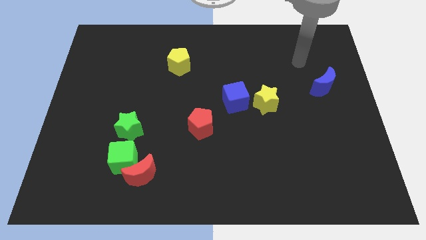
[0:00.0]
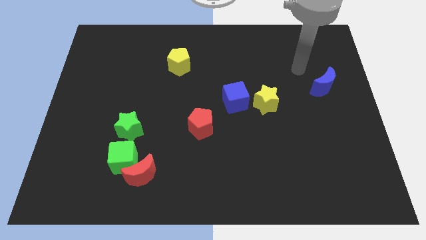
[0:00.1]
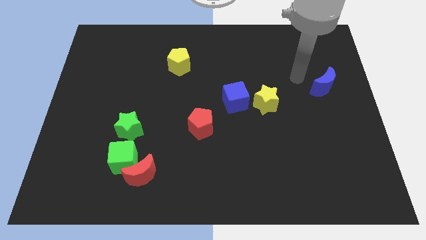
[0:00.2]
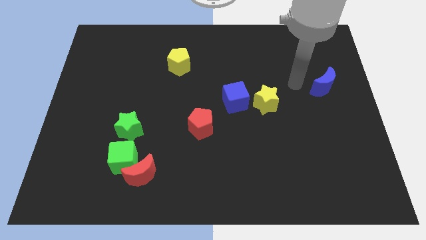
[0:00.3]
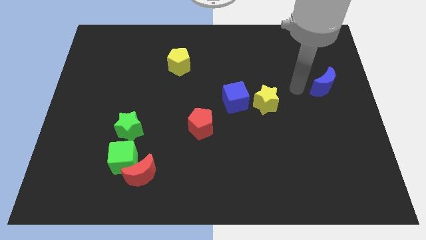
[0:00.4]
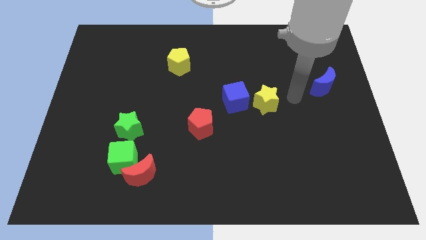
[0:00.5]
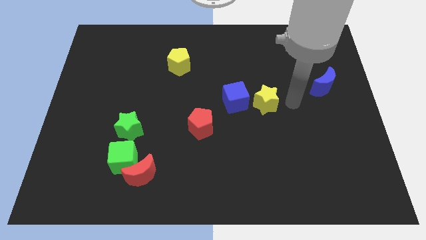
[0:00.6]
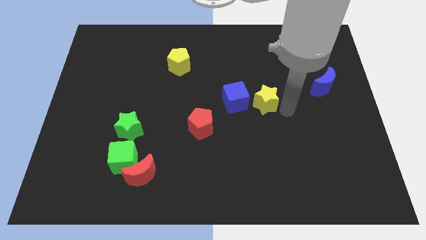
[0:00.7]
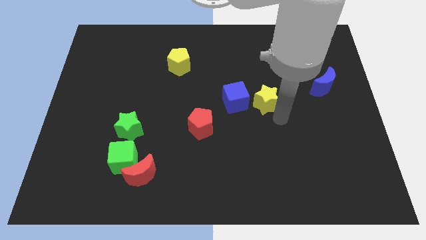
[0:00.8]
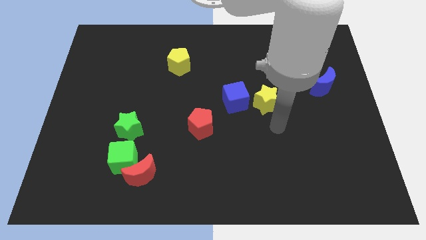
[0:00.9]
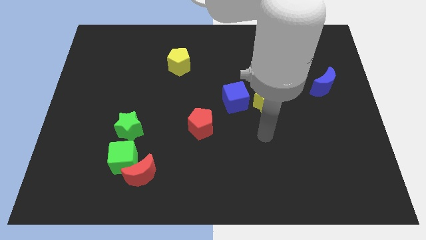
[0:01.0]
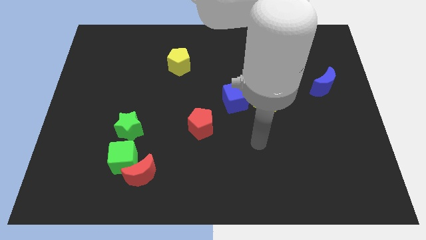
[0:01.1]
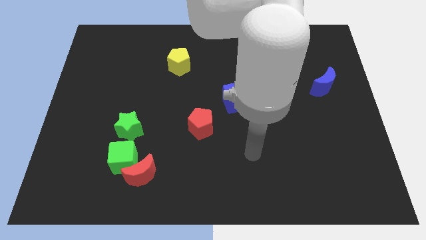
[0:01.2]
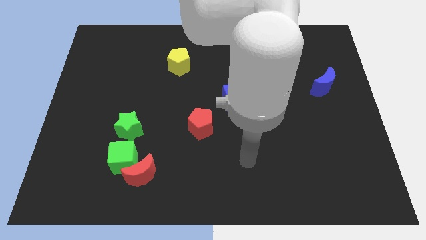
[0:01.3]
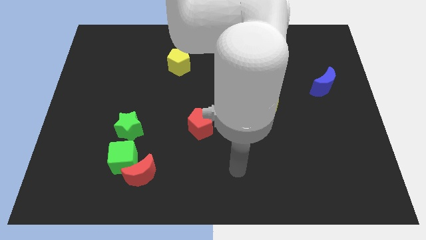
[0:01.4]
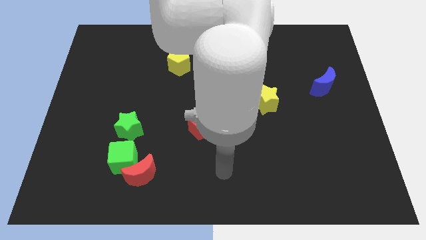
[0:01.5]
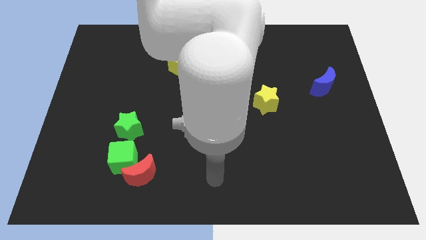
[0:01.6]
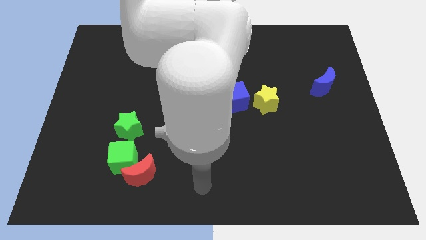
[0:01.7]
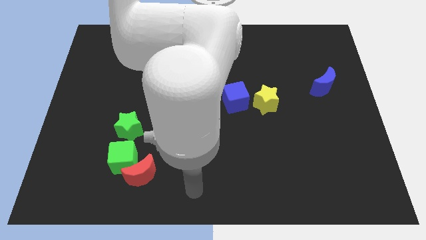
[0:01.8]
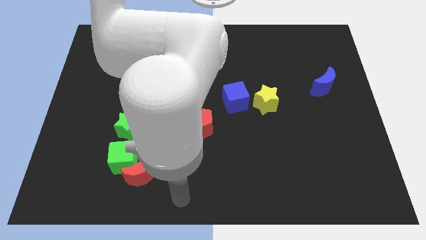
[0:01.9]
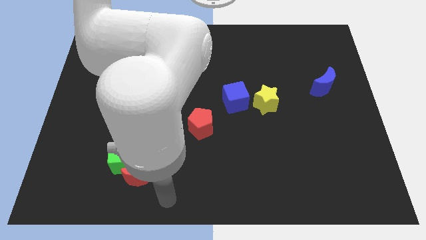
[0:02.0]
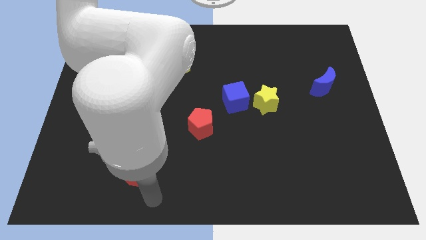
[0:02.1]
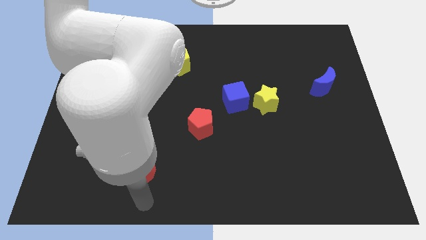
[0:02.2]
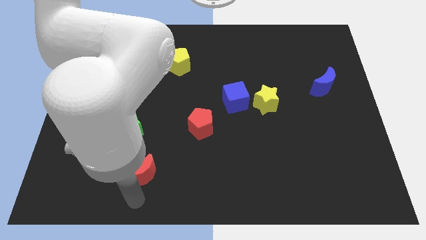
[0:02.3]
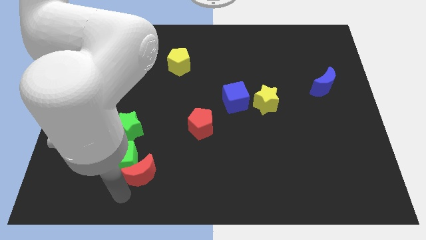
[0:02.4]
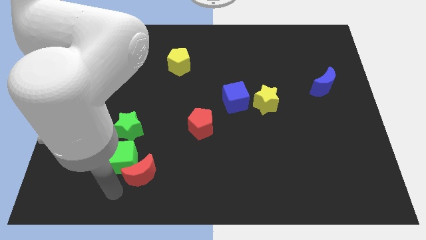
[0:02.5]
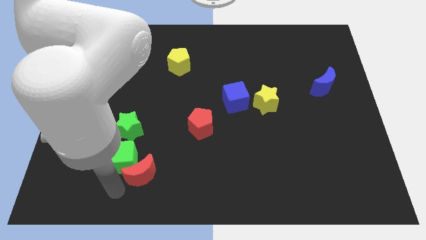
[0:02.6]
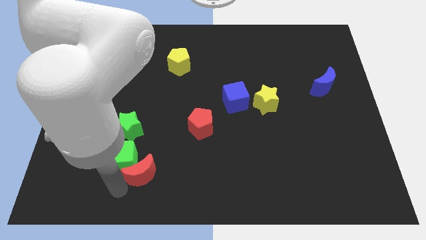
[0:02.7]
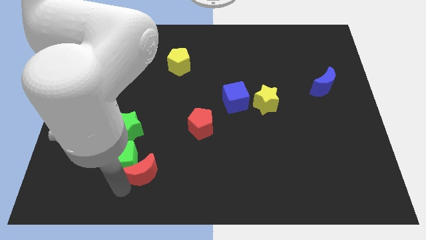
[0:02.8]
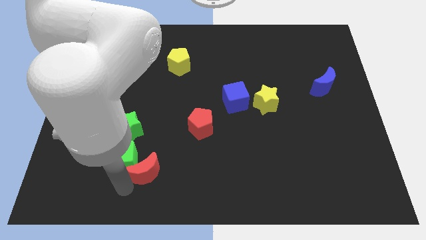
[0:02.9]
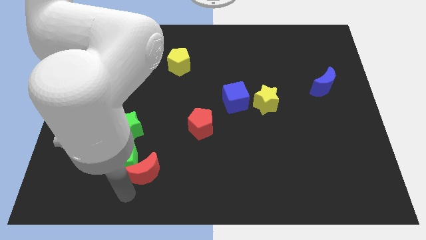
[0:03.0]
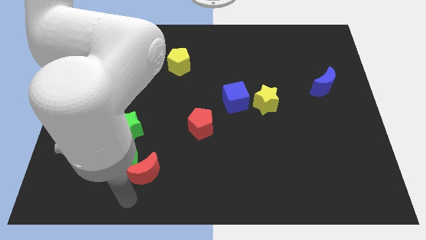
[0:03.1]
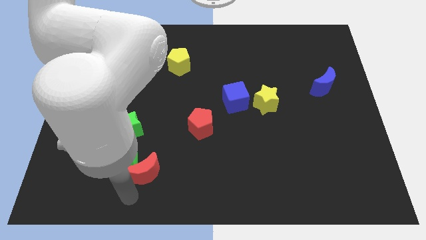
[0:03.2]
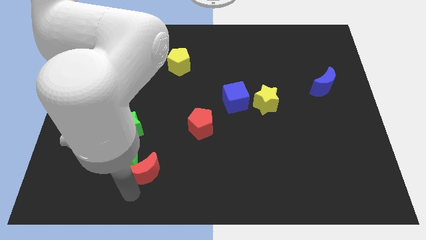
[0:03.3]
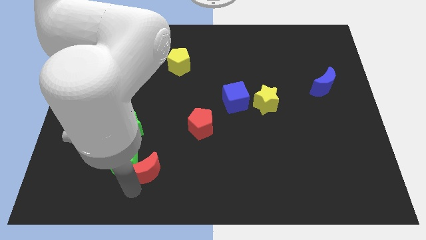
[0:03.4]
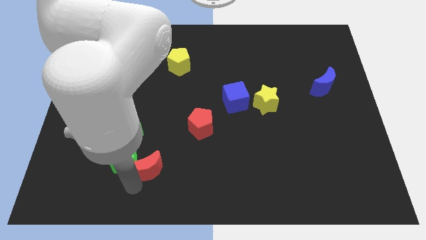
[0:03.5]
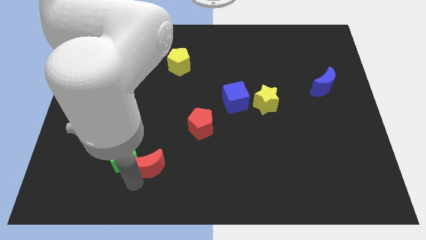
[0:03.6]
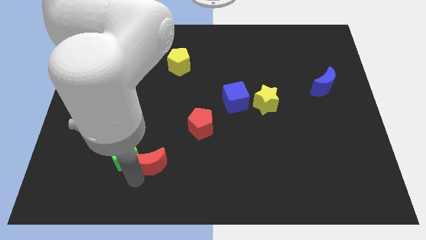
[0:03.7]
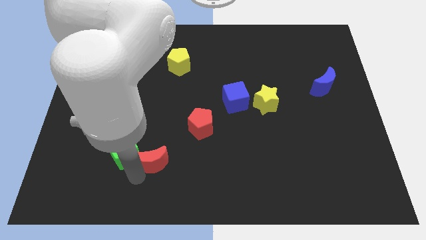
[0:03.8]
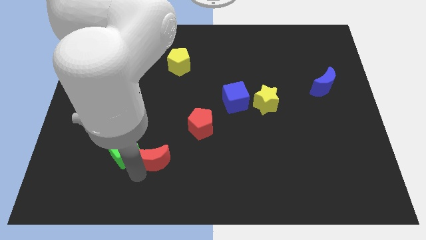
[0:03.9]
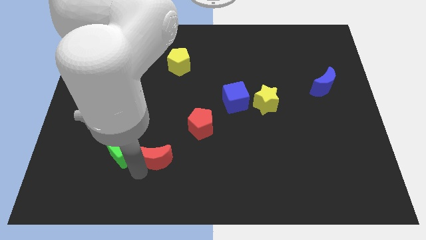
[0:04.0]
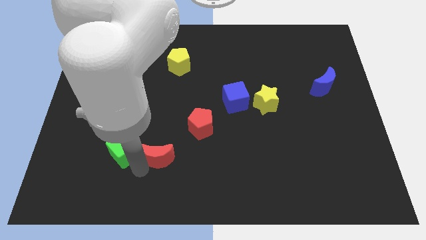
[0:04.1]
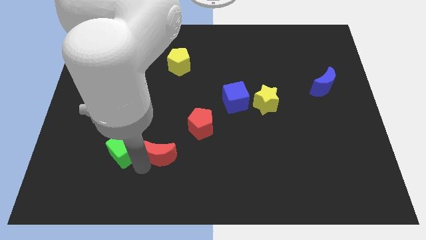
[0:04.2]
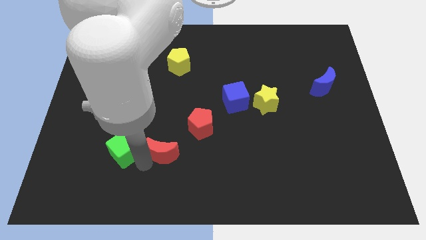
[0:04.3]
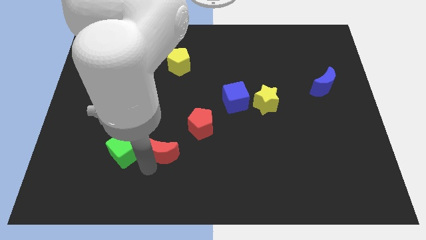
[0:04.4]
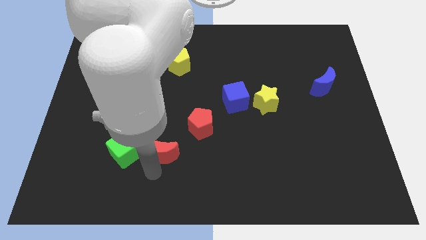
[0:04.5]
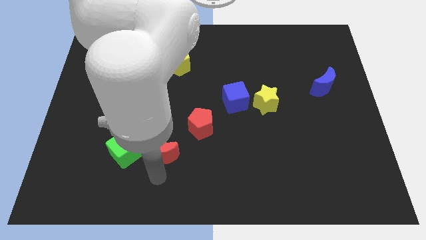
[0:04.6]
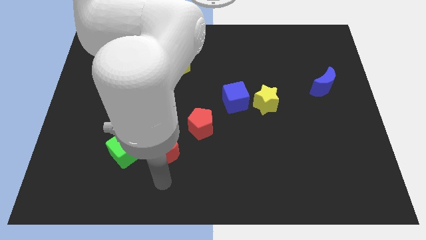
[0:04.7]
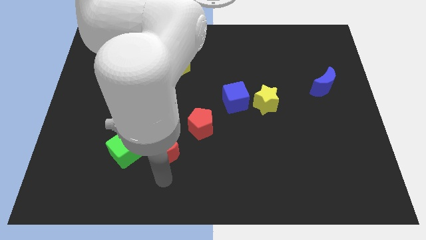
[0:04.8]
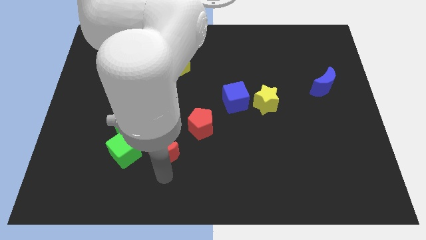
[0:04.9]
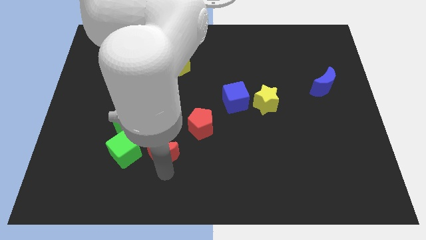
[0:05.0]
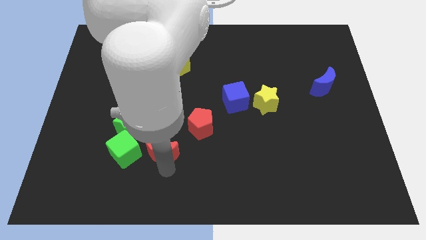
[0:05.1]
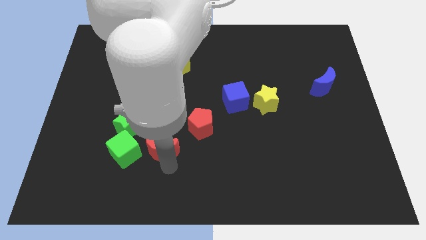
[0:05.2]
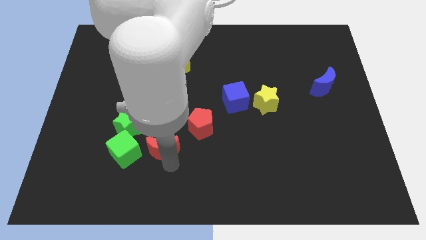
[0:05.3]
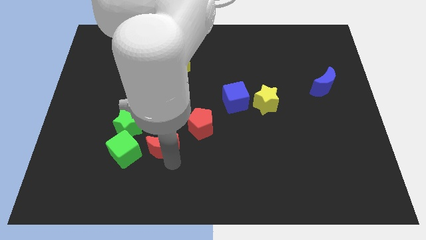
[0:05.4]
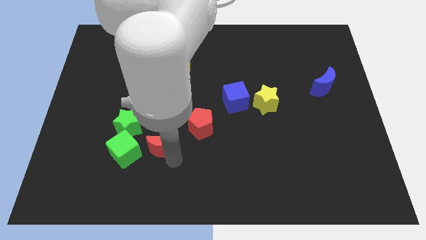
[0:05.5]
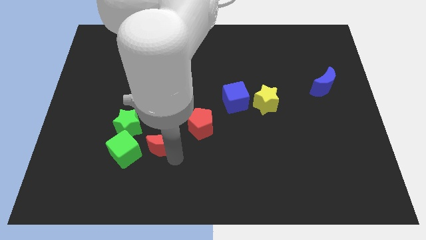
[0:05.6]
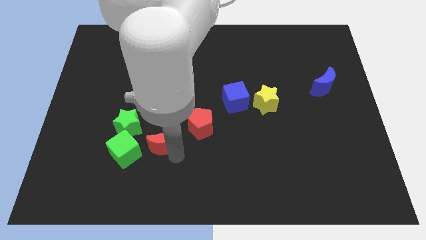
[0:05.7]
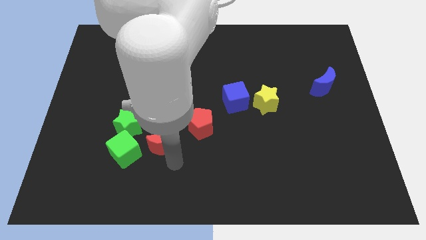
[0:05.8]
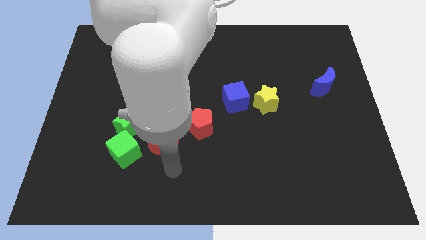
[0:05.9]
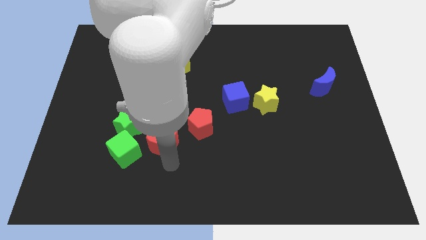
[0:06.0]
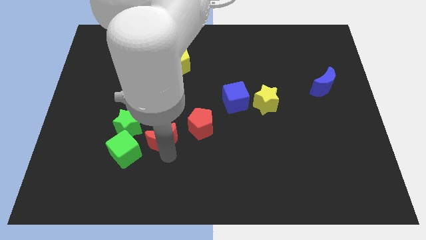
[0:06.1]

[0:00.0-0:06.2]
slightly move the red moon up

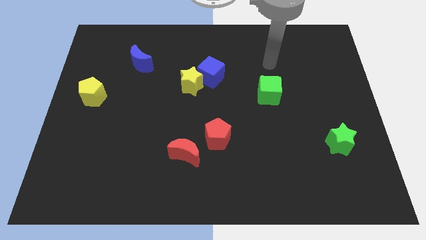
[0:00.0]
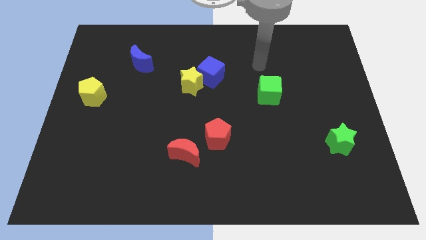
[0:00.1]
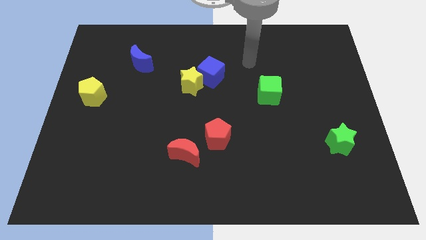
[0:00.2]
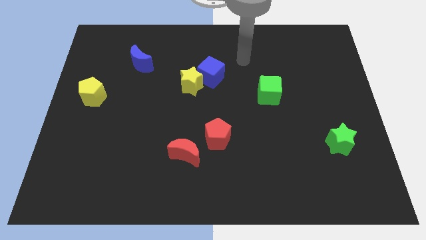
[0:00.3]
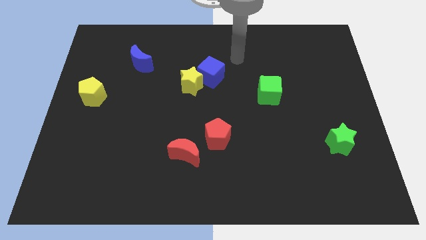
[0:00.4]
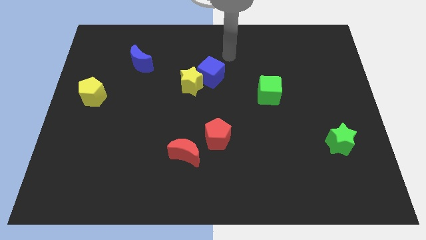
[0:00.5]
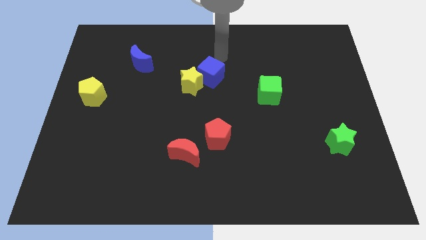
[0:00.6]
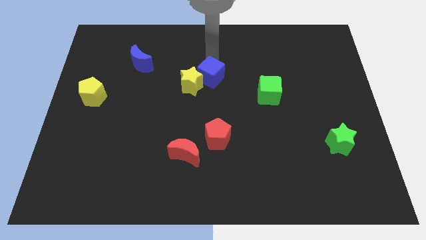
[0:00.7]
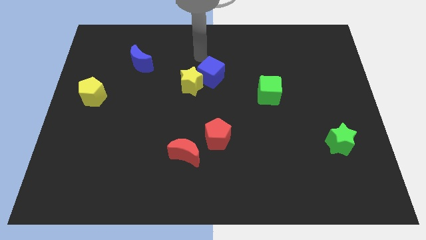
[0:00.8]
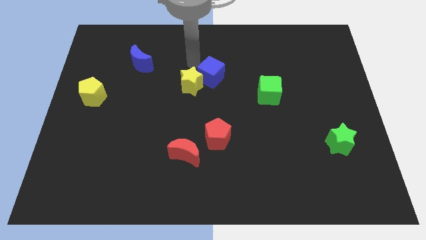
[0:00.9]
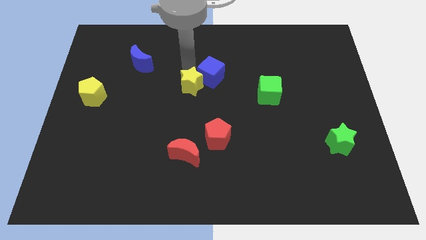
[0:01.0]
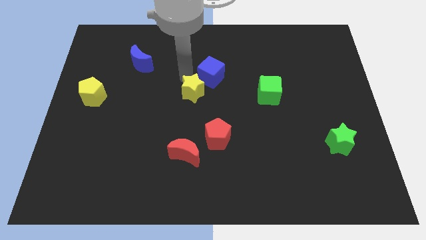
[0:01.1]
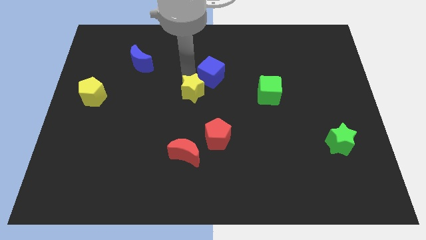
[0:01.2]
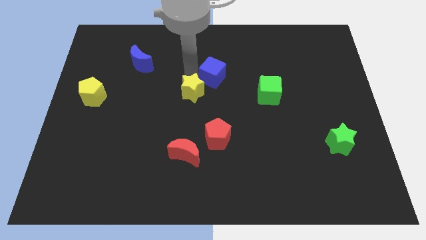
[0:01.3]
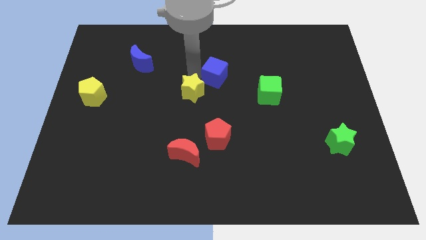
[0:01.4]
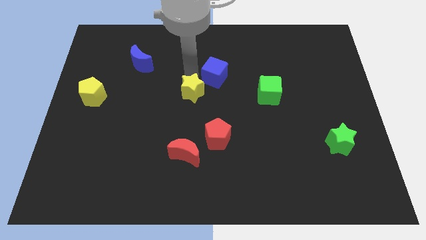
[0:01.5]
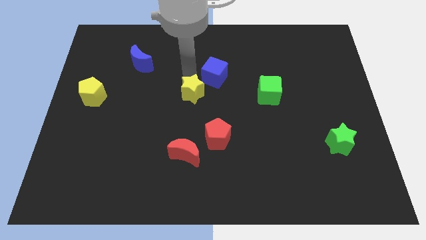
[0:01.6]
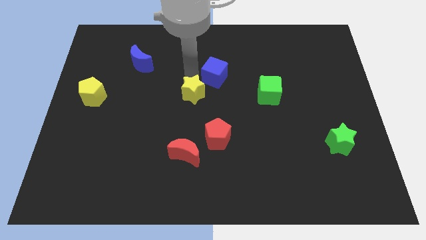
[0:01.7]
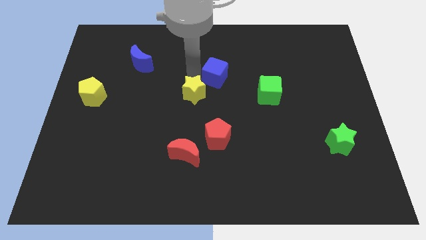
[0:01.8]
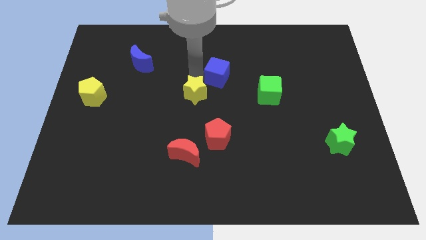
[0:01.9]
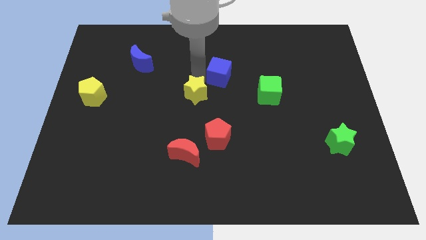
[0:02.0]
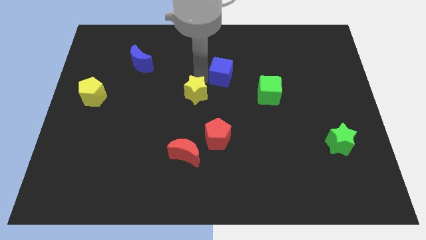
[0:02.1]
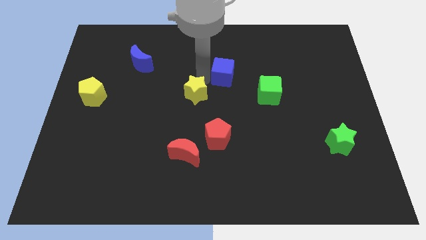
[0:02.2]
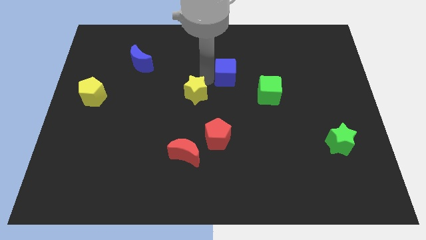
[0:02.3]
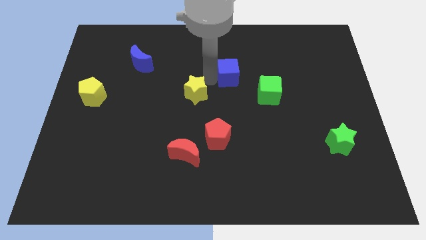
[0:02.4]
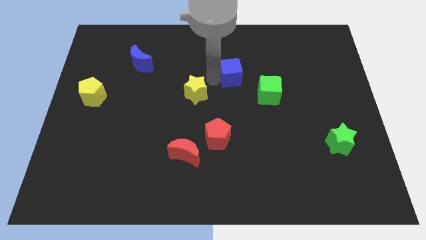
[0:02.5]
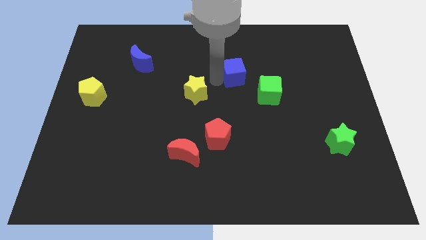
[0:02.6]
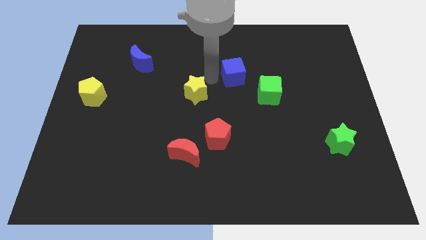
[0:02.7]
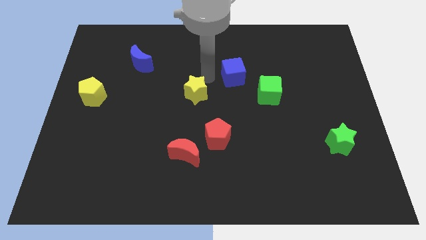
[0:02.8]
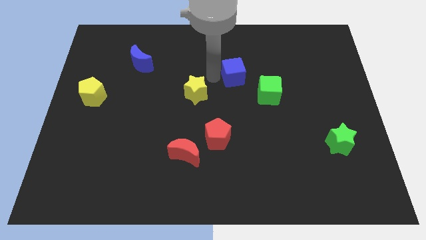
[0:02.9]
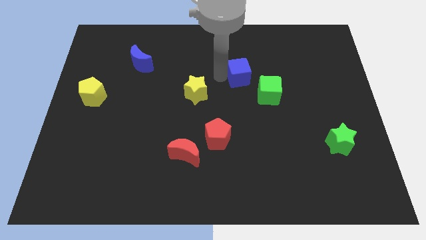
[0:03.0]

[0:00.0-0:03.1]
slightly move the blue cube to the right
